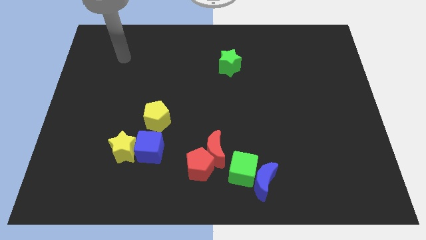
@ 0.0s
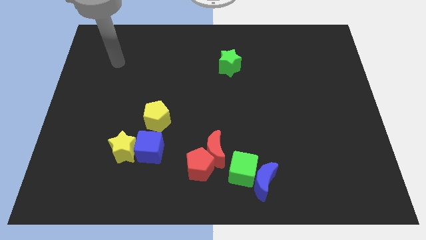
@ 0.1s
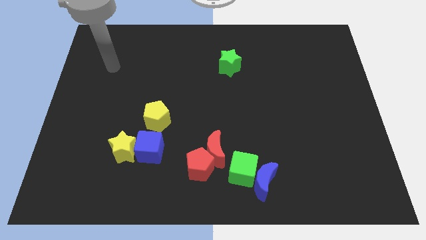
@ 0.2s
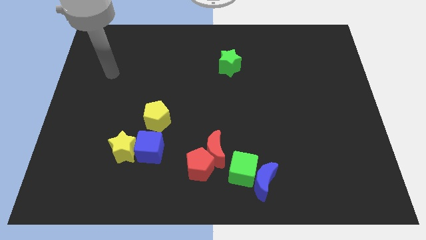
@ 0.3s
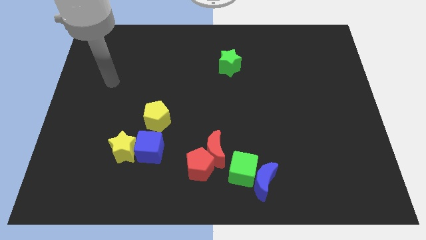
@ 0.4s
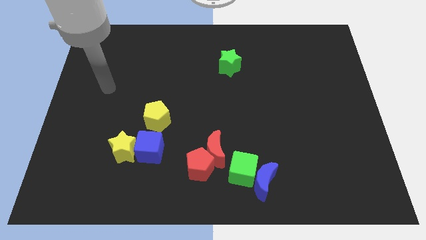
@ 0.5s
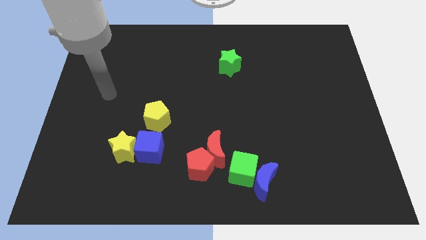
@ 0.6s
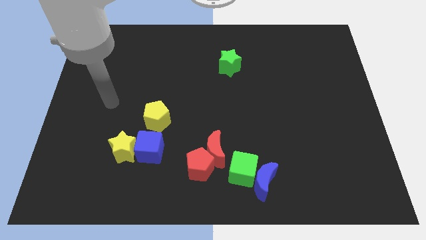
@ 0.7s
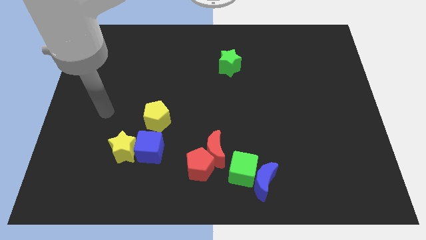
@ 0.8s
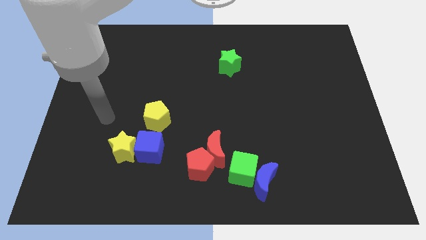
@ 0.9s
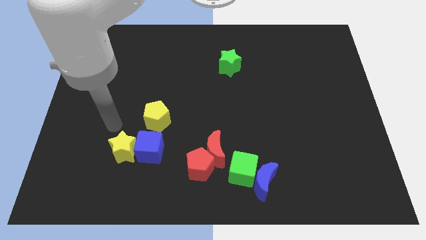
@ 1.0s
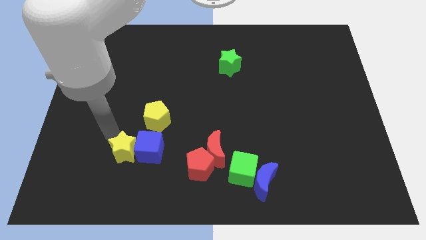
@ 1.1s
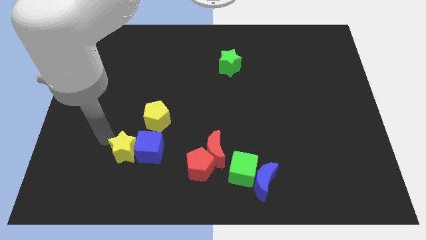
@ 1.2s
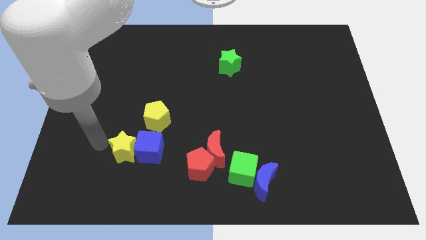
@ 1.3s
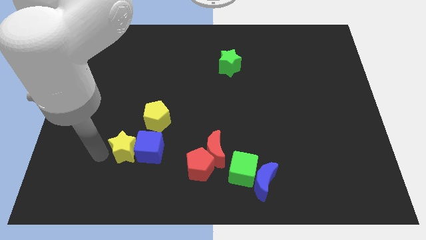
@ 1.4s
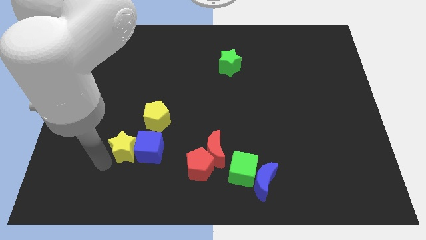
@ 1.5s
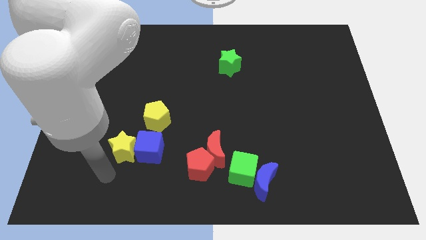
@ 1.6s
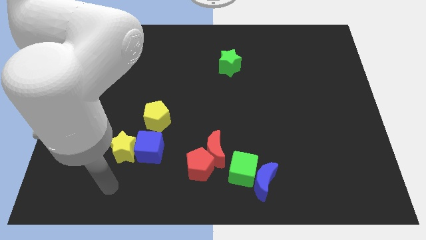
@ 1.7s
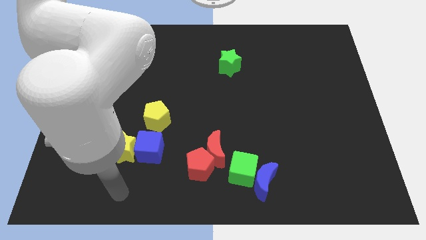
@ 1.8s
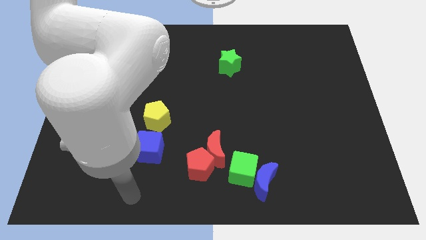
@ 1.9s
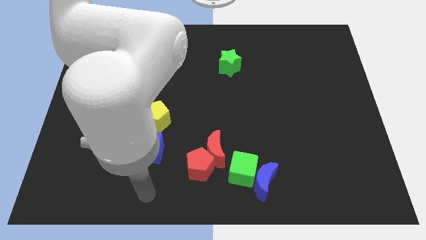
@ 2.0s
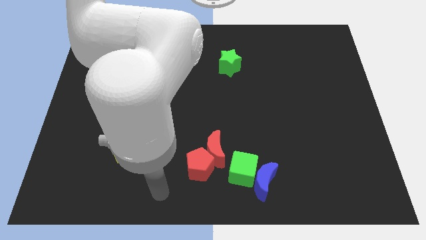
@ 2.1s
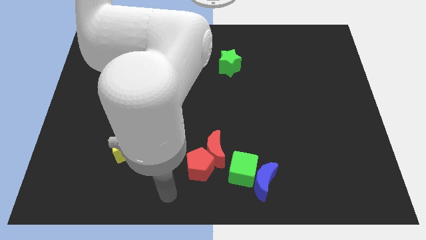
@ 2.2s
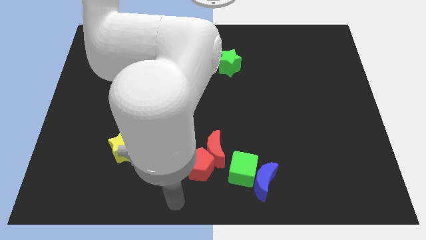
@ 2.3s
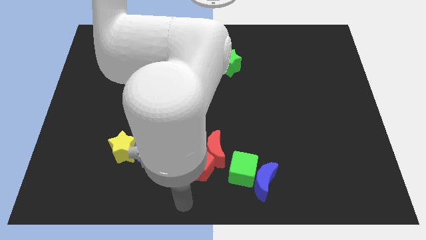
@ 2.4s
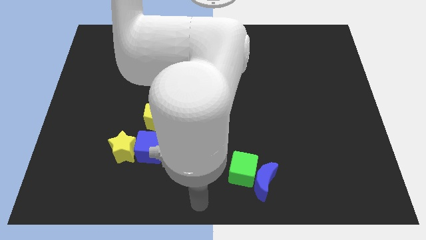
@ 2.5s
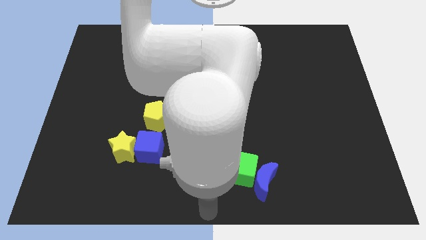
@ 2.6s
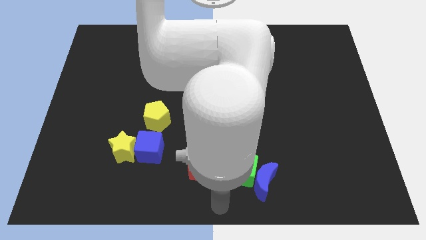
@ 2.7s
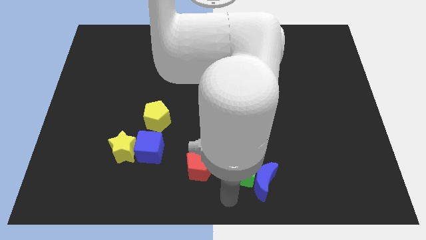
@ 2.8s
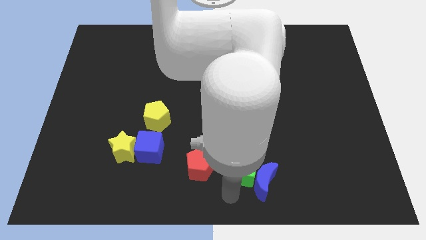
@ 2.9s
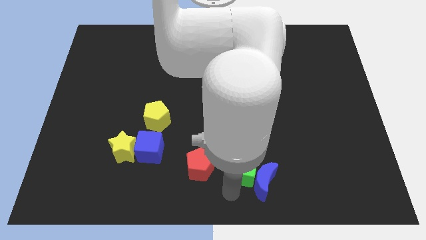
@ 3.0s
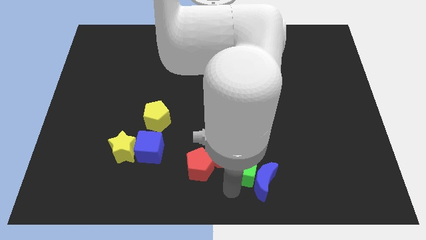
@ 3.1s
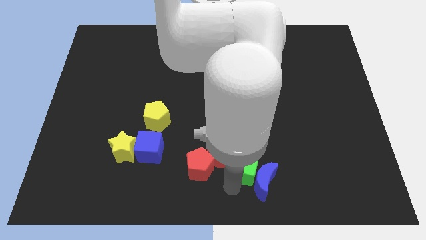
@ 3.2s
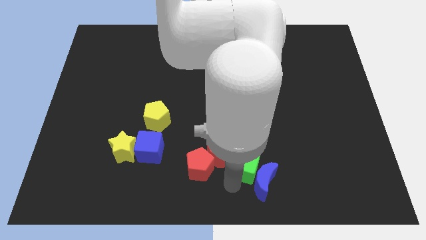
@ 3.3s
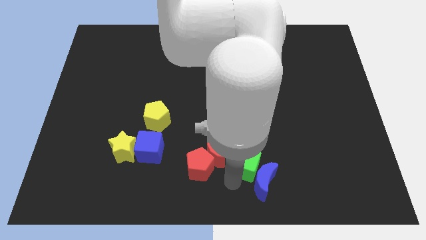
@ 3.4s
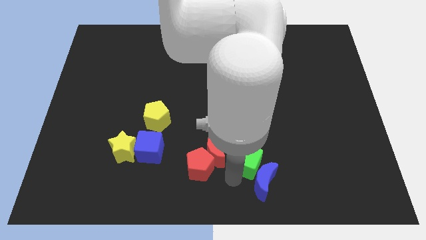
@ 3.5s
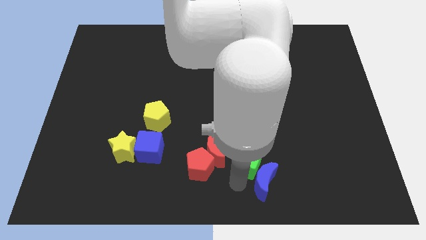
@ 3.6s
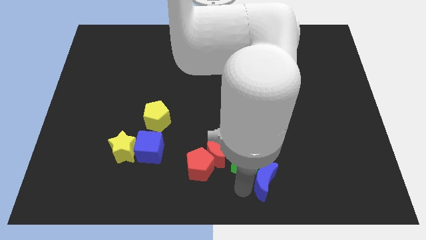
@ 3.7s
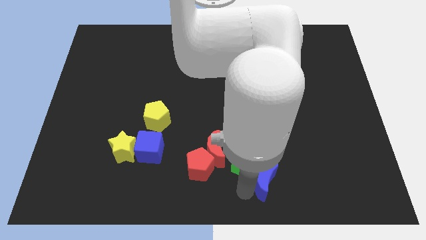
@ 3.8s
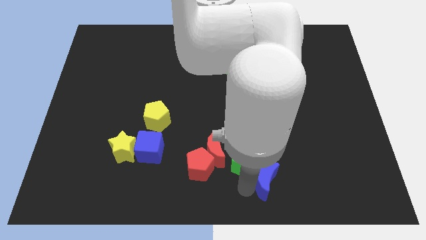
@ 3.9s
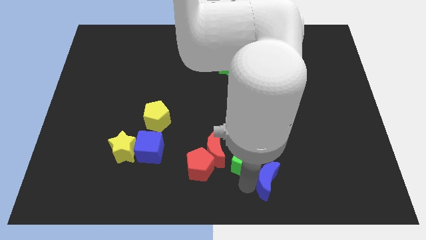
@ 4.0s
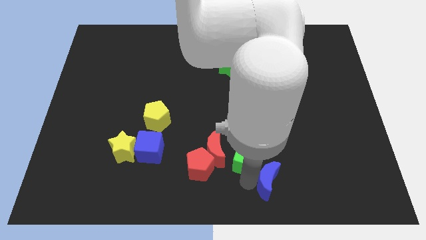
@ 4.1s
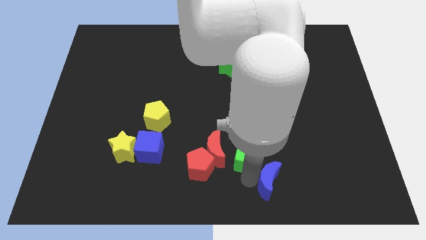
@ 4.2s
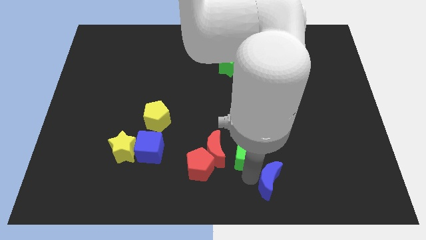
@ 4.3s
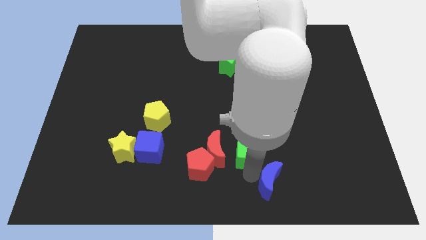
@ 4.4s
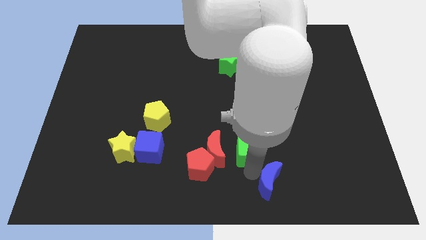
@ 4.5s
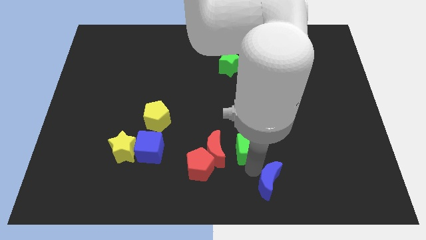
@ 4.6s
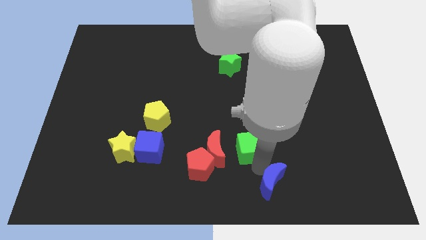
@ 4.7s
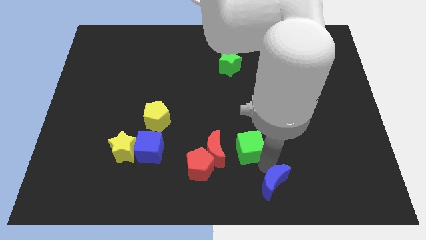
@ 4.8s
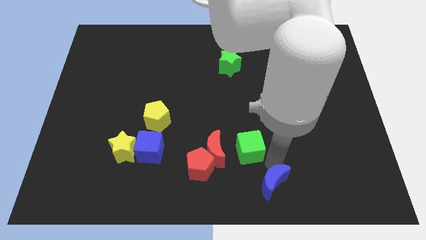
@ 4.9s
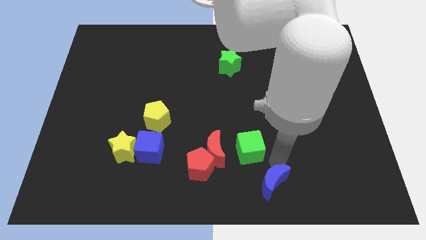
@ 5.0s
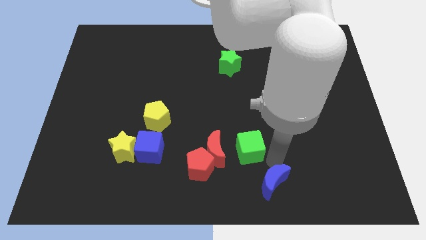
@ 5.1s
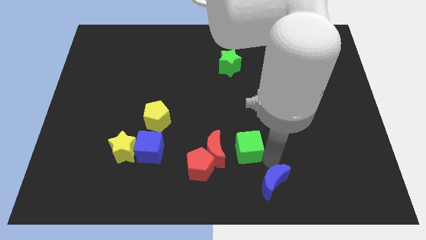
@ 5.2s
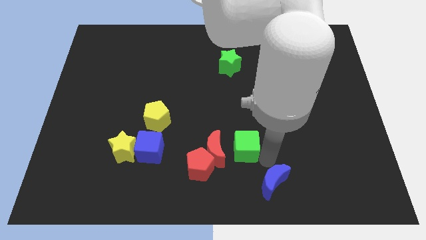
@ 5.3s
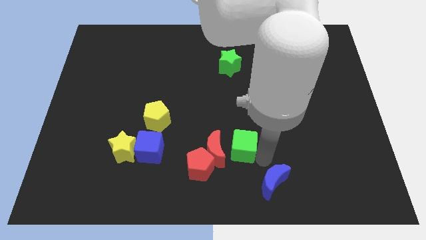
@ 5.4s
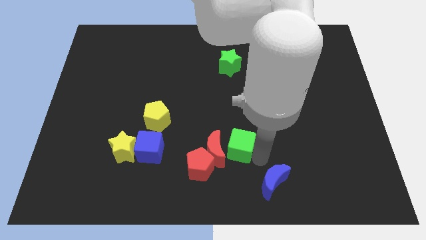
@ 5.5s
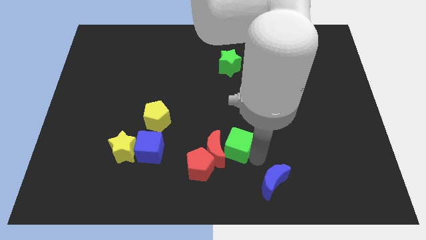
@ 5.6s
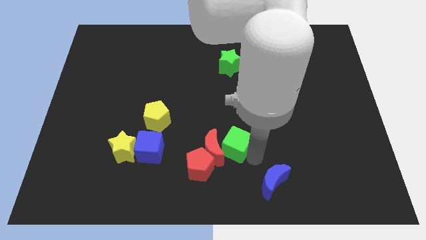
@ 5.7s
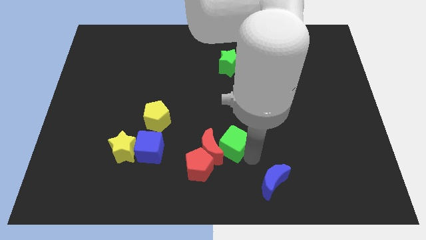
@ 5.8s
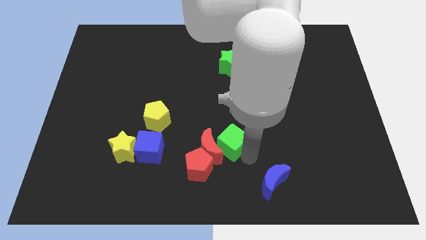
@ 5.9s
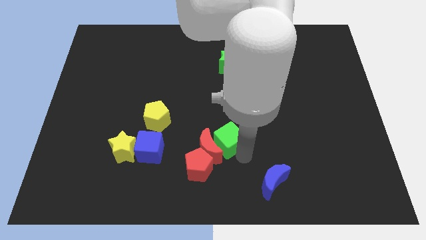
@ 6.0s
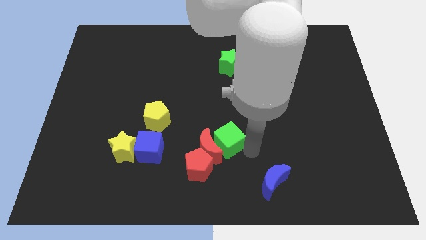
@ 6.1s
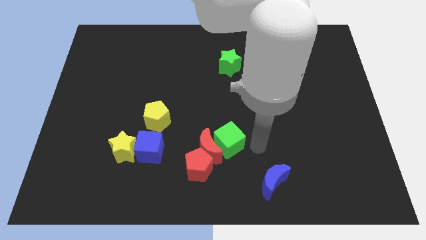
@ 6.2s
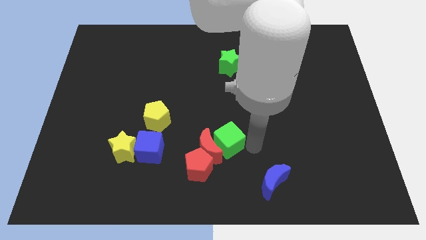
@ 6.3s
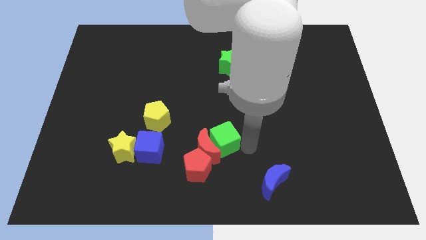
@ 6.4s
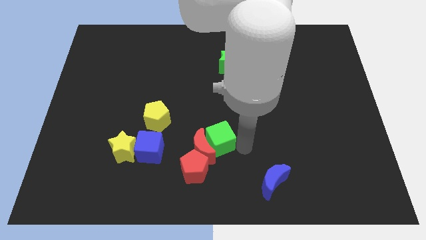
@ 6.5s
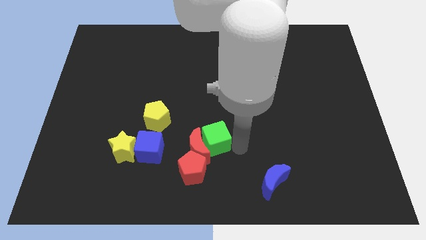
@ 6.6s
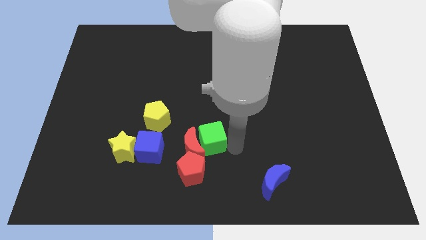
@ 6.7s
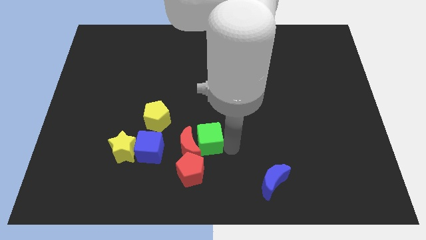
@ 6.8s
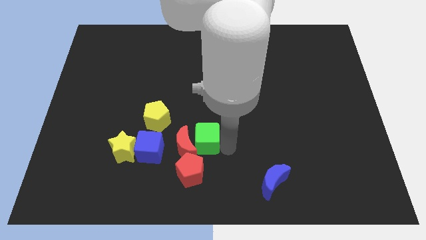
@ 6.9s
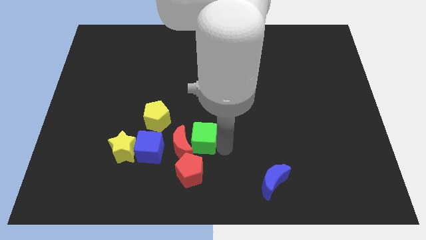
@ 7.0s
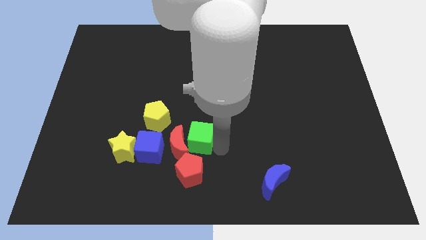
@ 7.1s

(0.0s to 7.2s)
move the green cube to the bottom right of the yellow pentagon

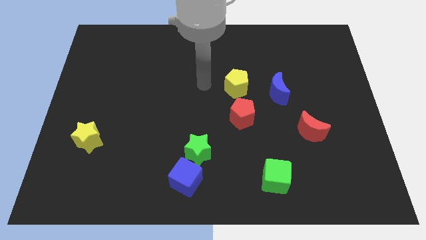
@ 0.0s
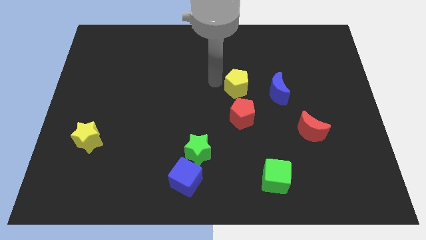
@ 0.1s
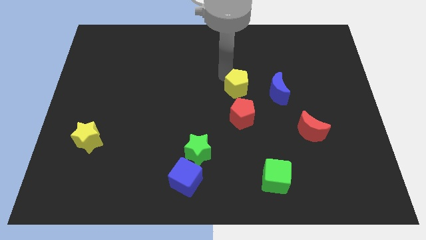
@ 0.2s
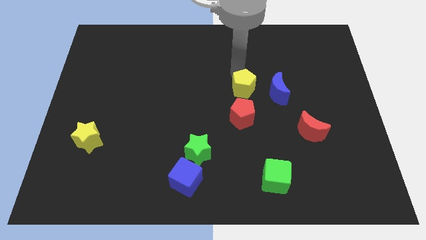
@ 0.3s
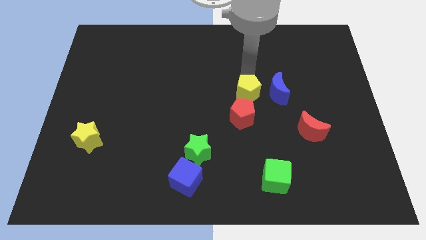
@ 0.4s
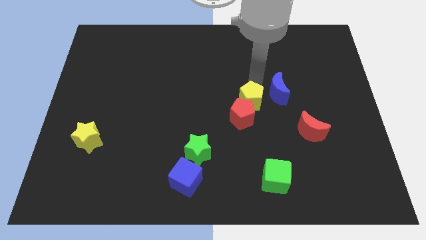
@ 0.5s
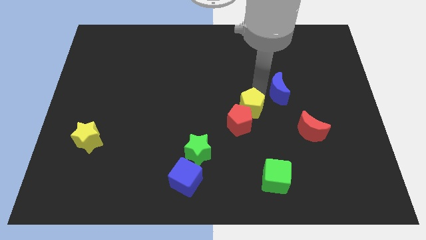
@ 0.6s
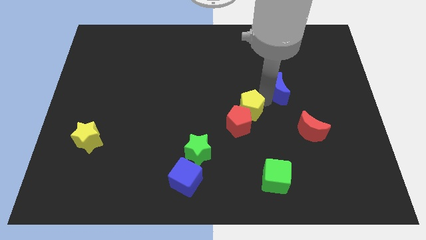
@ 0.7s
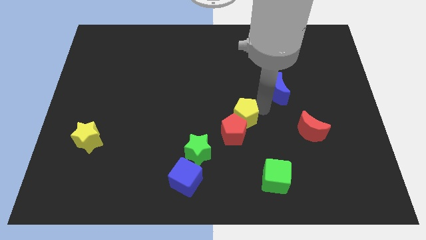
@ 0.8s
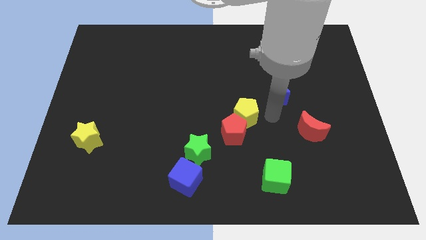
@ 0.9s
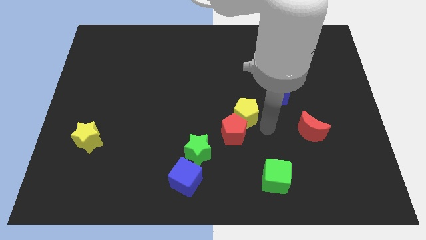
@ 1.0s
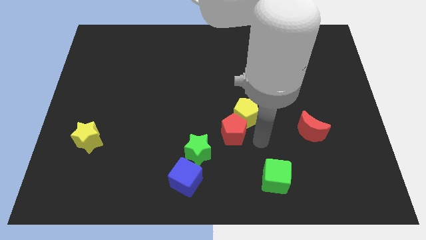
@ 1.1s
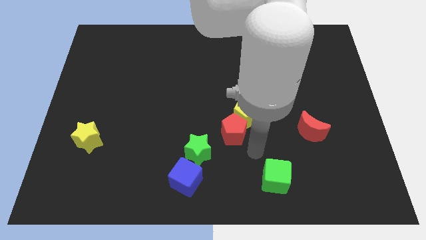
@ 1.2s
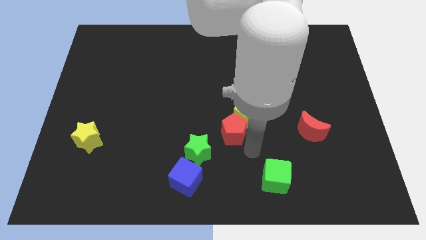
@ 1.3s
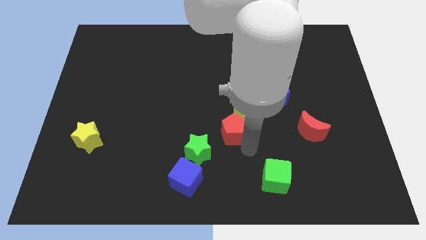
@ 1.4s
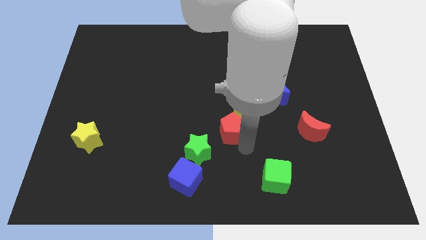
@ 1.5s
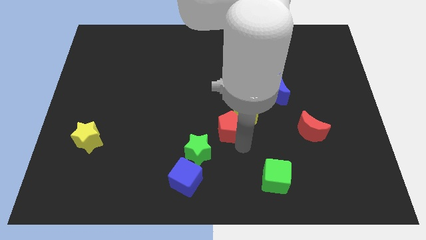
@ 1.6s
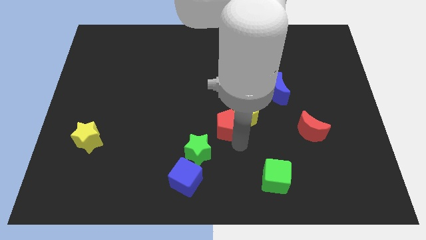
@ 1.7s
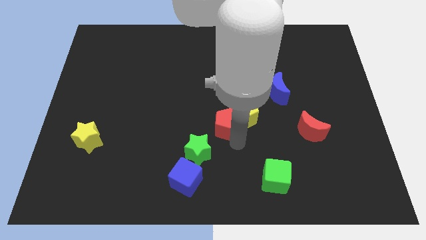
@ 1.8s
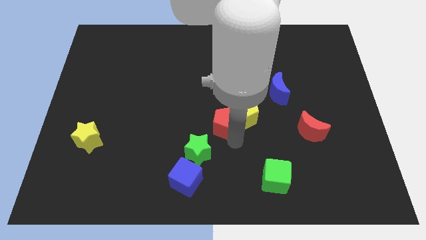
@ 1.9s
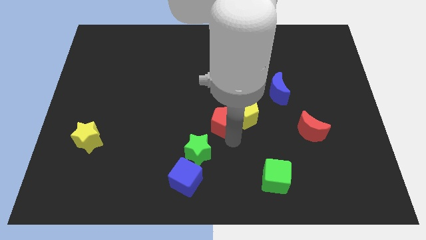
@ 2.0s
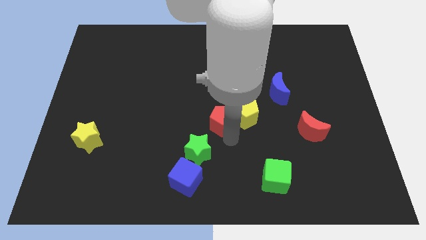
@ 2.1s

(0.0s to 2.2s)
slide the red pentagon above the green star
